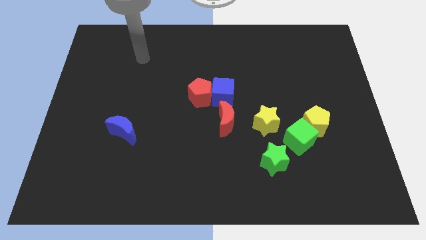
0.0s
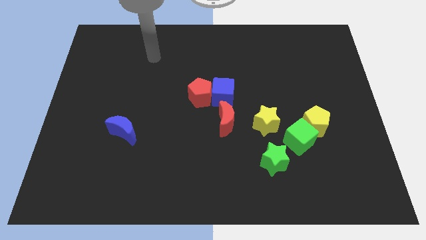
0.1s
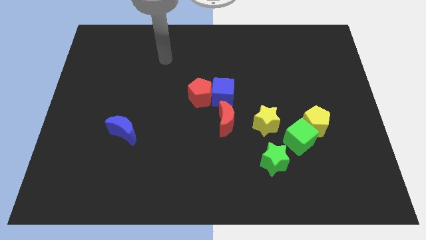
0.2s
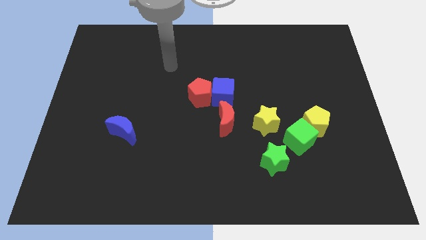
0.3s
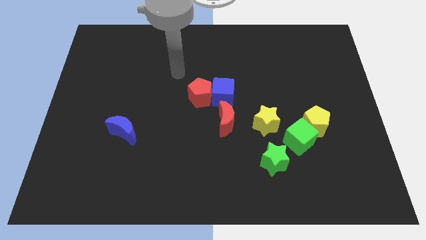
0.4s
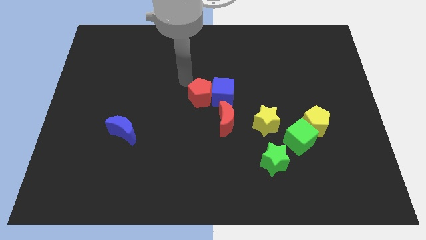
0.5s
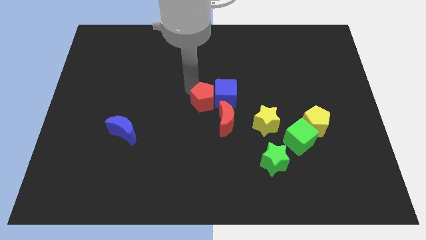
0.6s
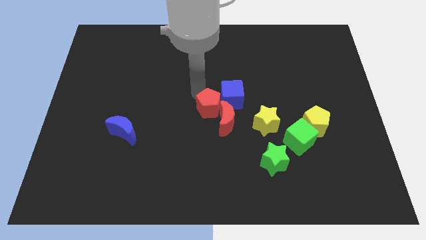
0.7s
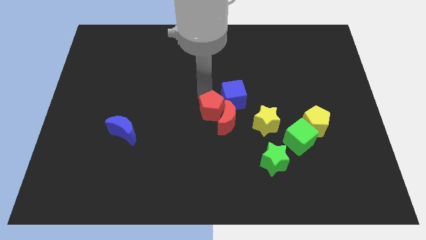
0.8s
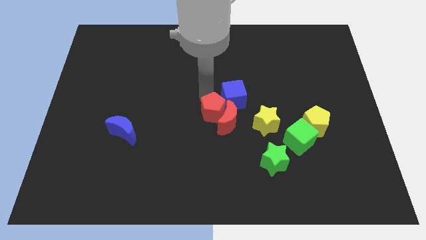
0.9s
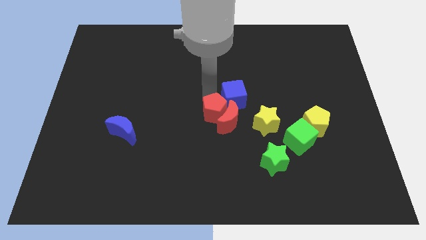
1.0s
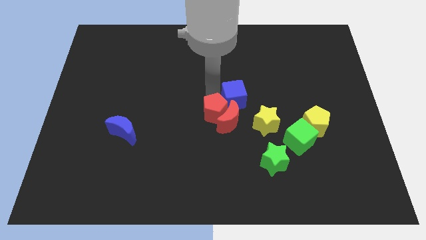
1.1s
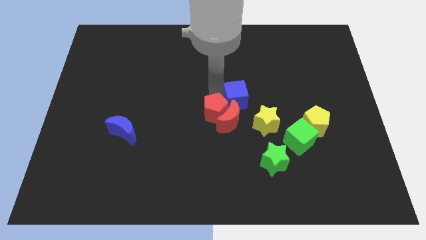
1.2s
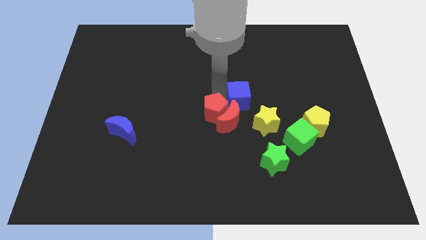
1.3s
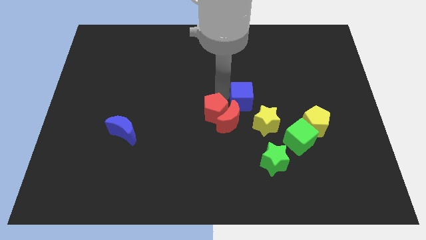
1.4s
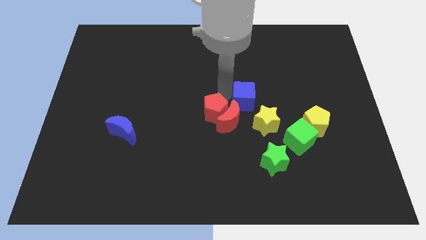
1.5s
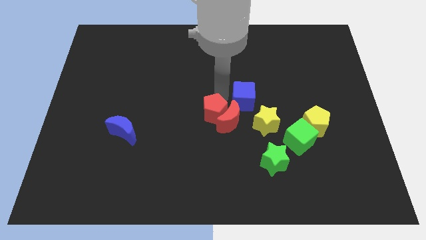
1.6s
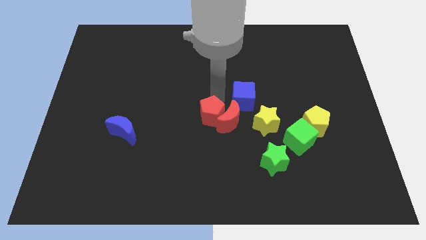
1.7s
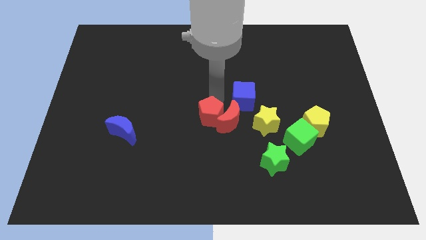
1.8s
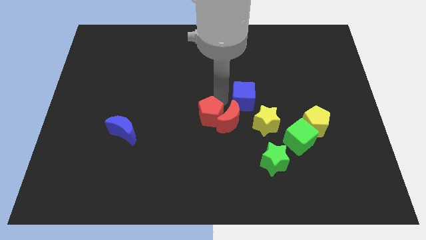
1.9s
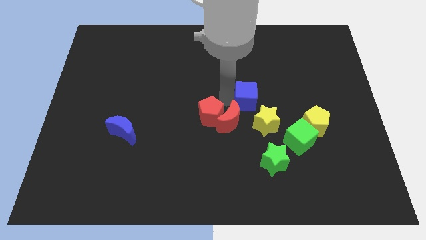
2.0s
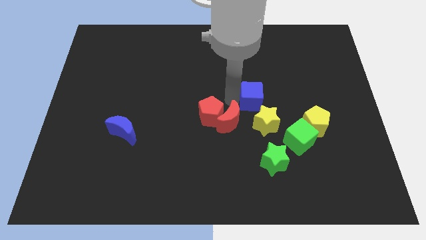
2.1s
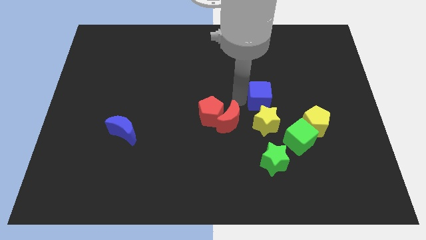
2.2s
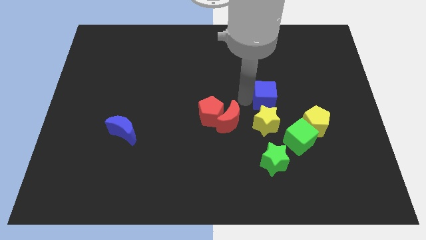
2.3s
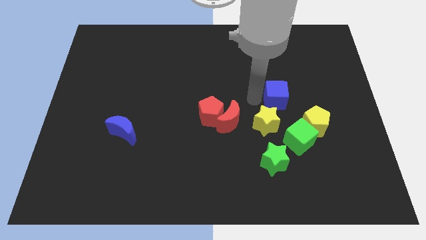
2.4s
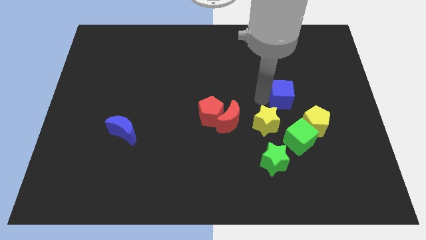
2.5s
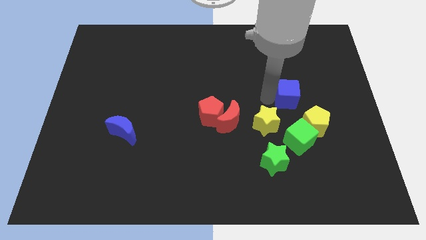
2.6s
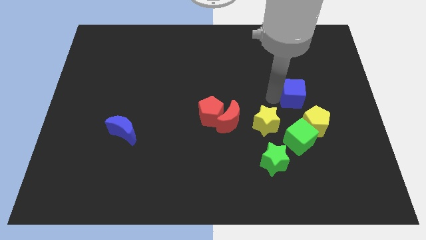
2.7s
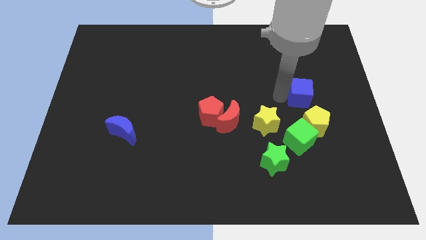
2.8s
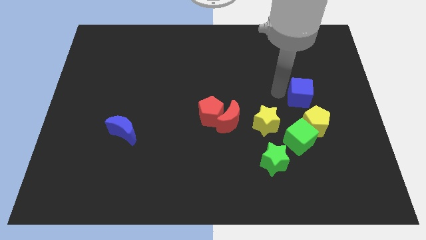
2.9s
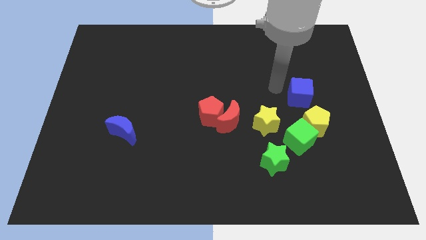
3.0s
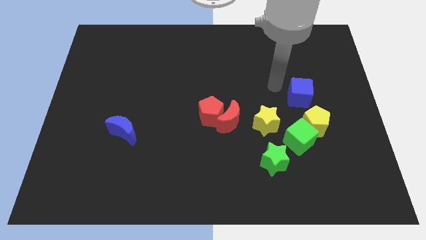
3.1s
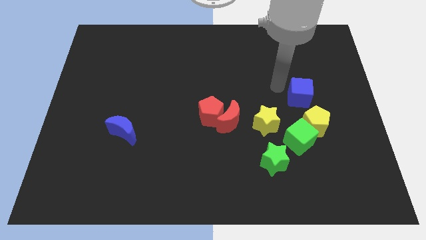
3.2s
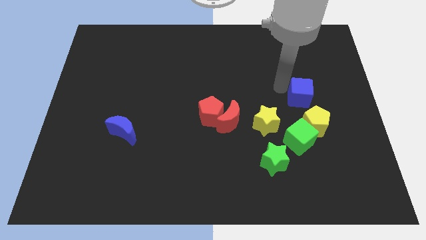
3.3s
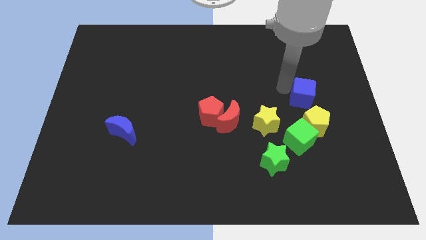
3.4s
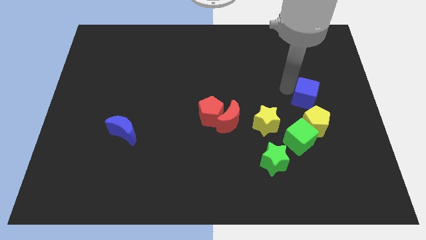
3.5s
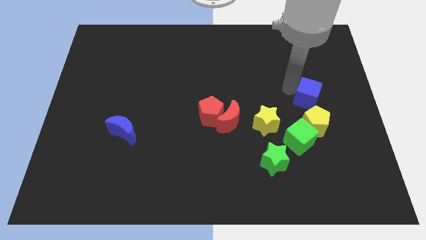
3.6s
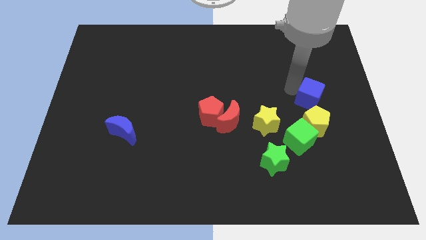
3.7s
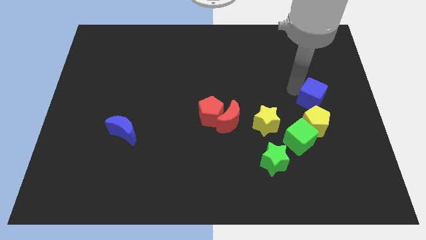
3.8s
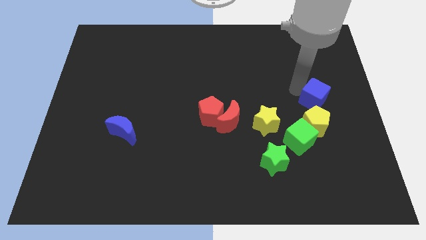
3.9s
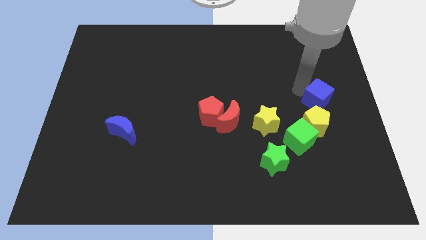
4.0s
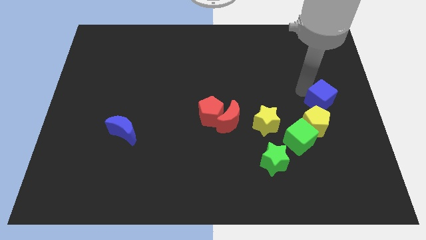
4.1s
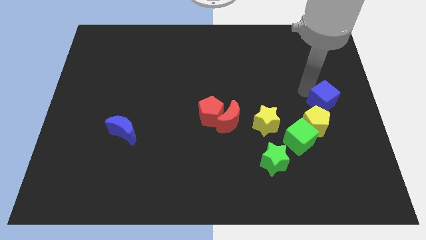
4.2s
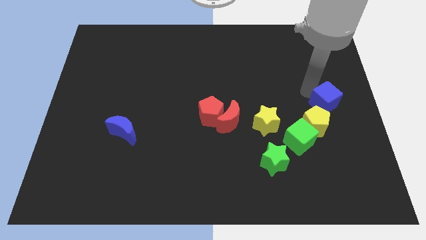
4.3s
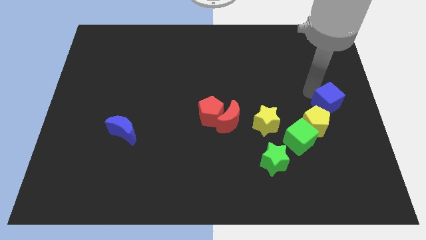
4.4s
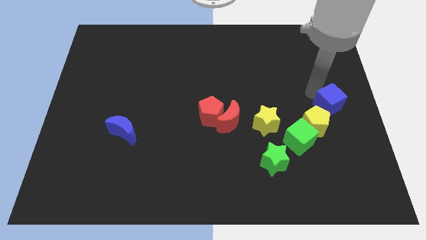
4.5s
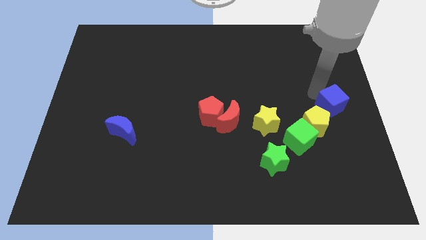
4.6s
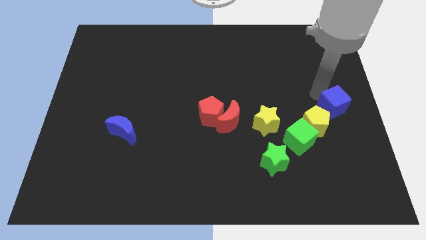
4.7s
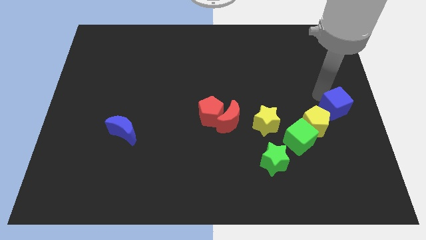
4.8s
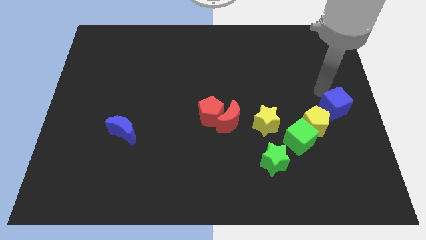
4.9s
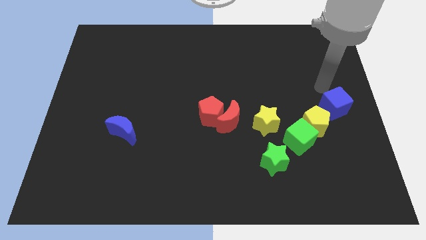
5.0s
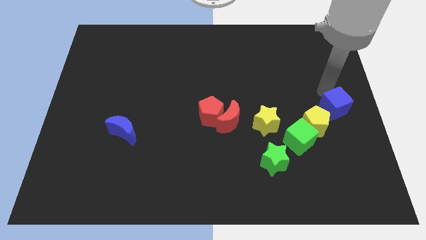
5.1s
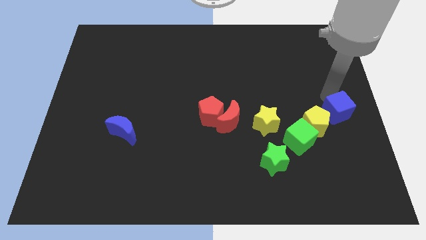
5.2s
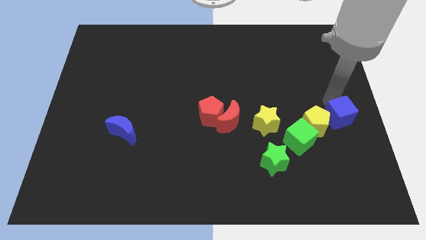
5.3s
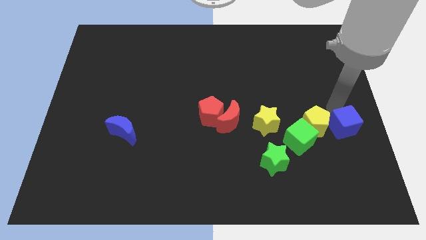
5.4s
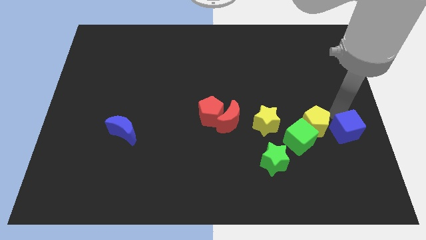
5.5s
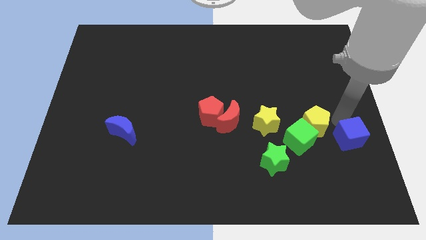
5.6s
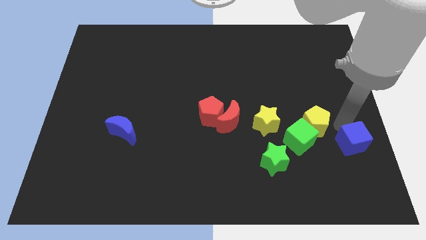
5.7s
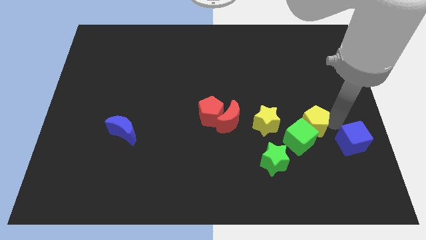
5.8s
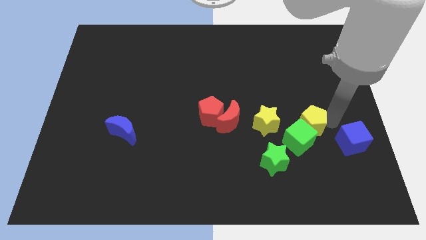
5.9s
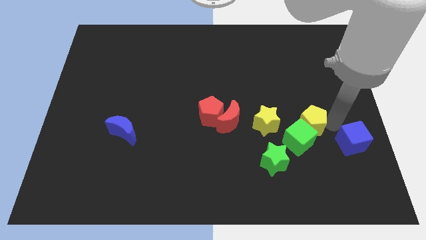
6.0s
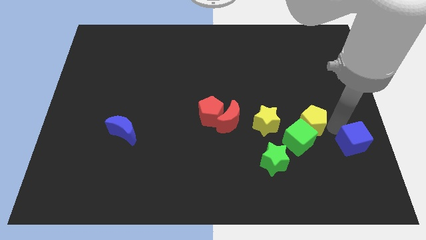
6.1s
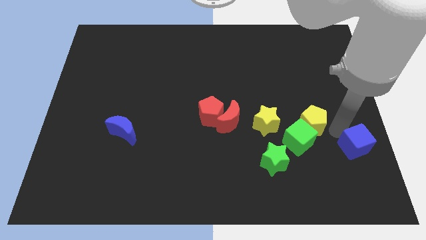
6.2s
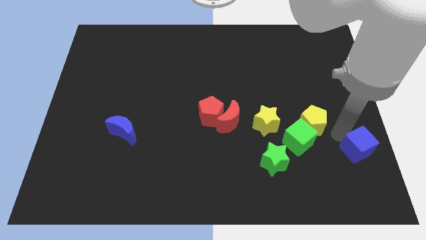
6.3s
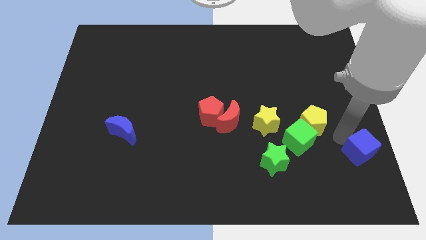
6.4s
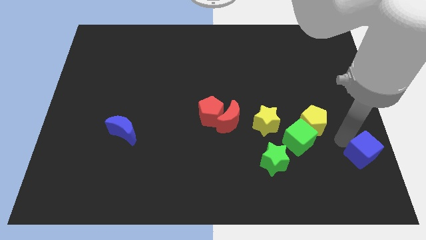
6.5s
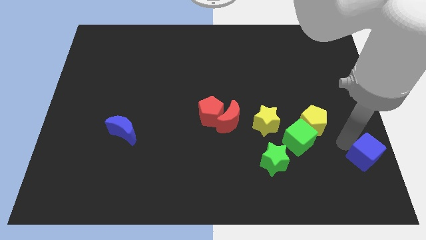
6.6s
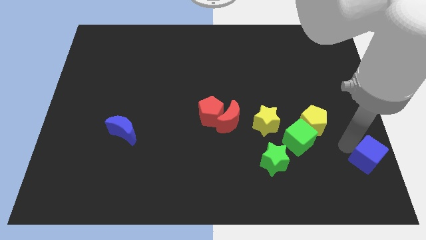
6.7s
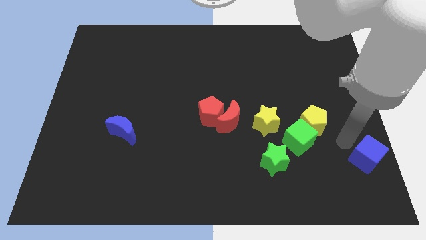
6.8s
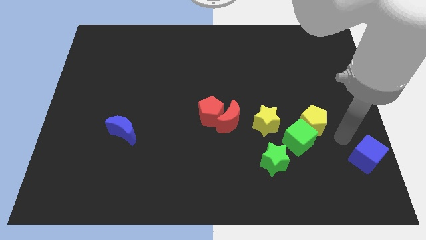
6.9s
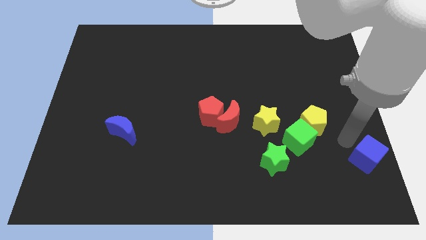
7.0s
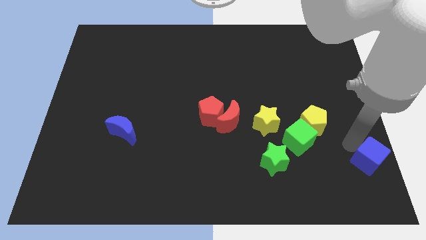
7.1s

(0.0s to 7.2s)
slide the blue cube to the bottom right of the board

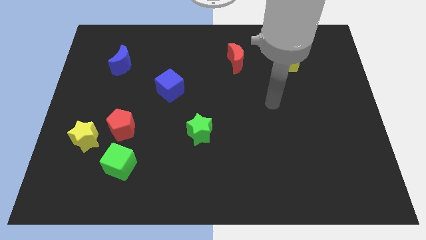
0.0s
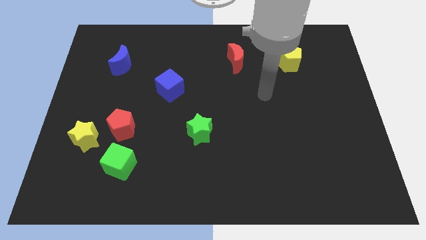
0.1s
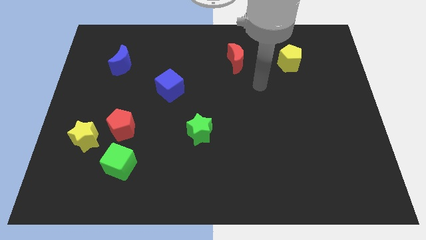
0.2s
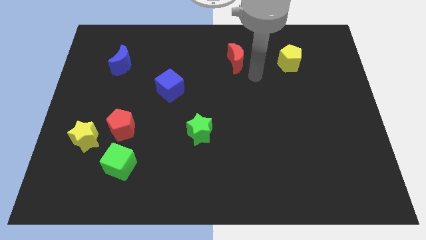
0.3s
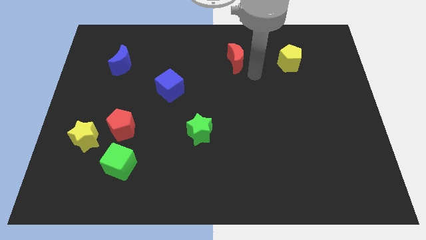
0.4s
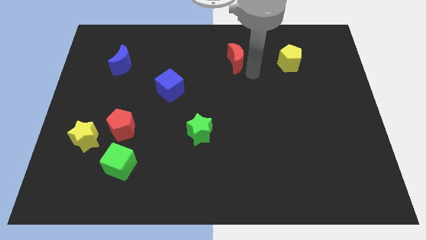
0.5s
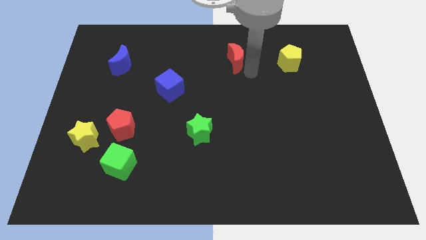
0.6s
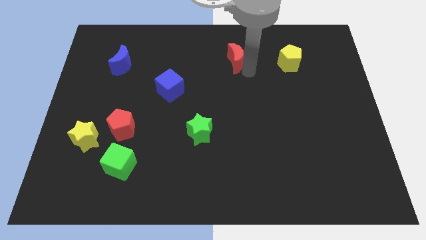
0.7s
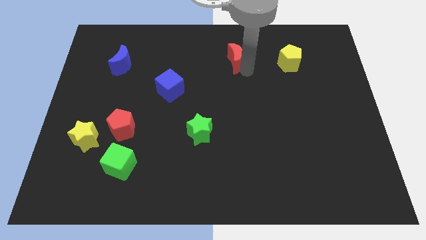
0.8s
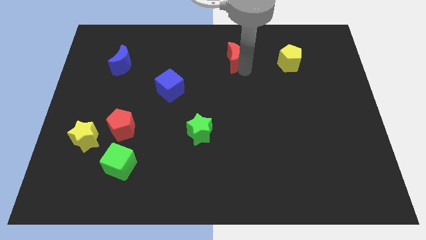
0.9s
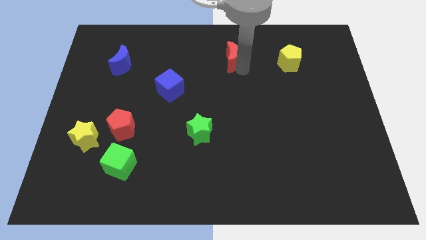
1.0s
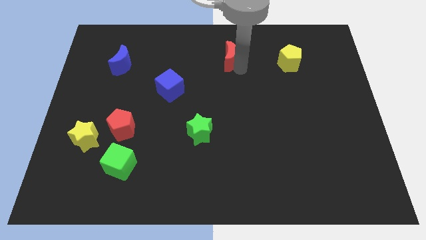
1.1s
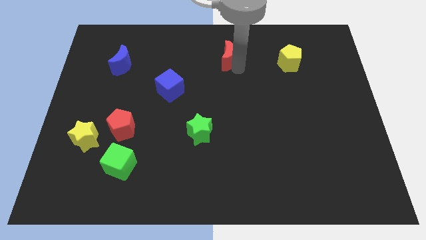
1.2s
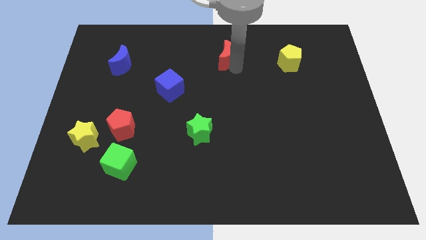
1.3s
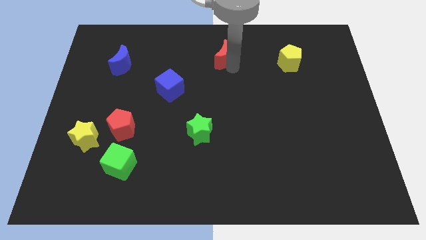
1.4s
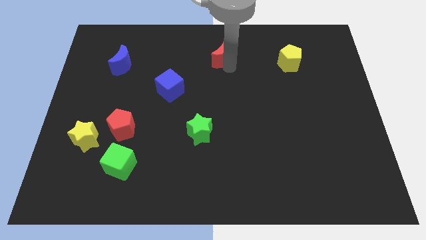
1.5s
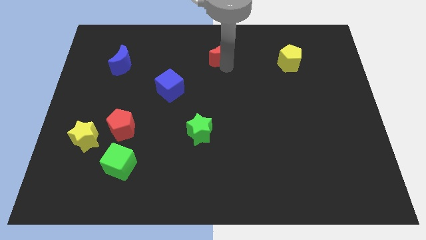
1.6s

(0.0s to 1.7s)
slide the red moon to the top
